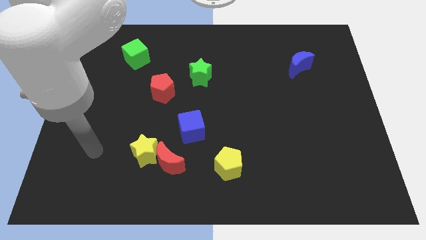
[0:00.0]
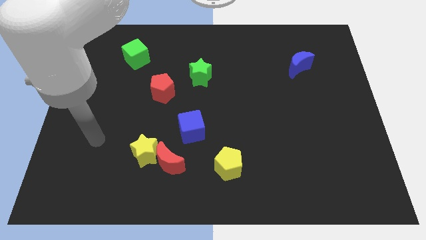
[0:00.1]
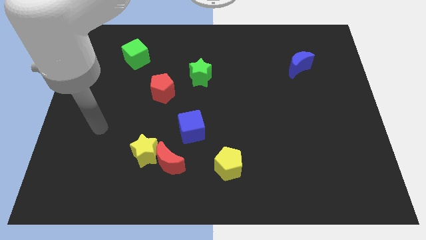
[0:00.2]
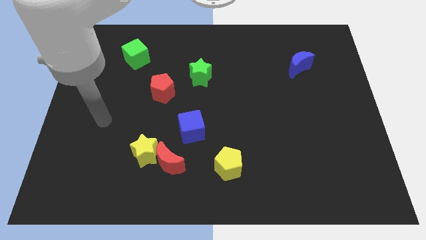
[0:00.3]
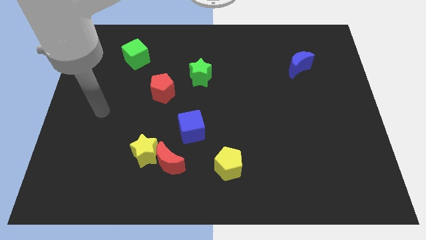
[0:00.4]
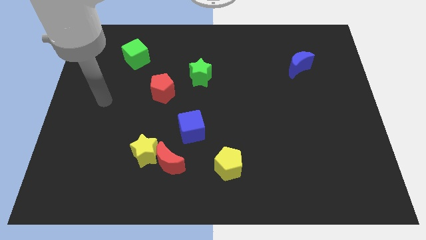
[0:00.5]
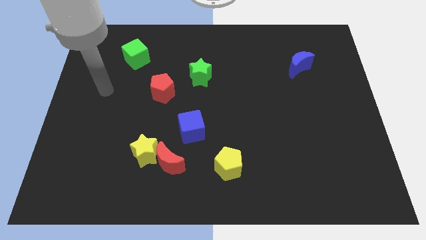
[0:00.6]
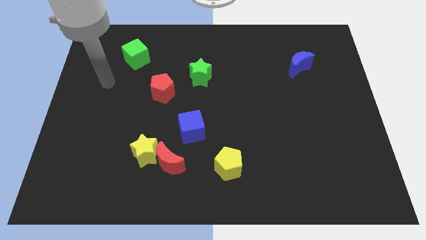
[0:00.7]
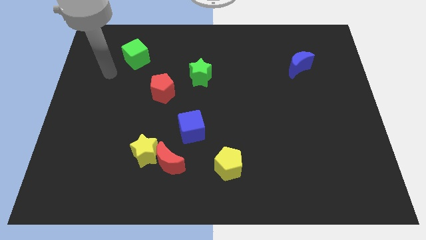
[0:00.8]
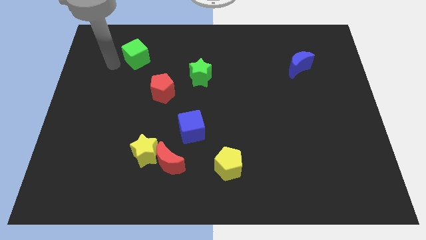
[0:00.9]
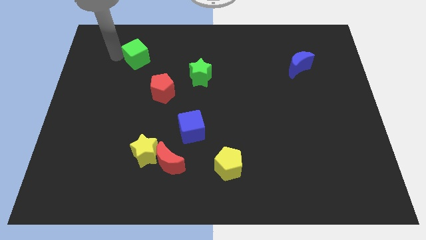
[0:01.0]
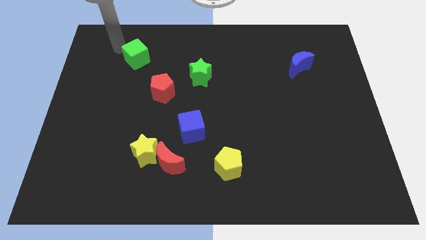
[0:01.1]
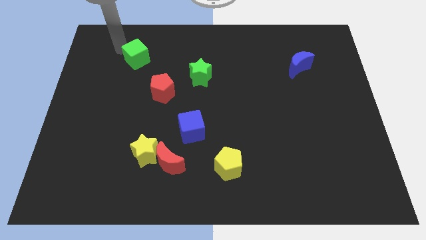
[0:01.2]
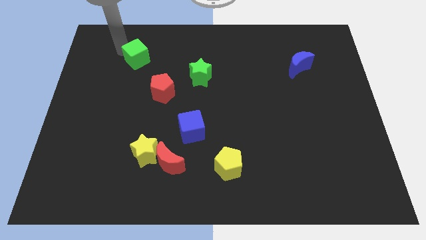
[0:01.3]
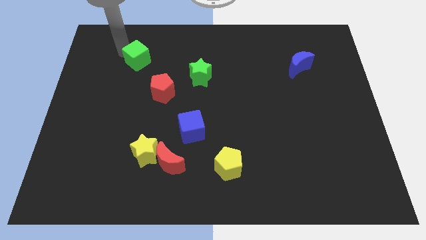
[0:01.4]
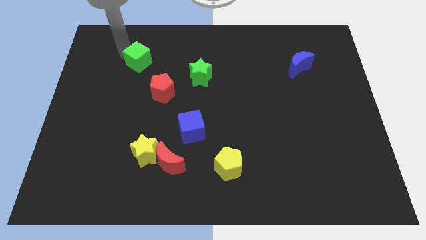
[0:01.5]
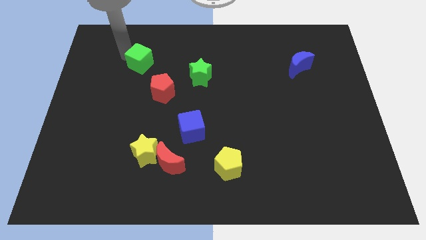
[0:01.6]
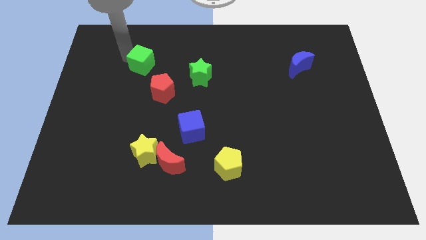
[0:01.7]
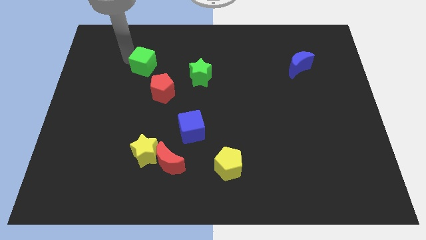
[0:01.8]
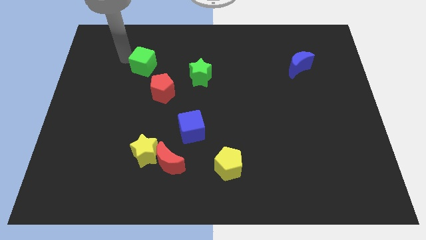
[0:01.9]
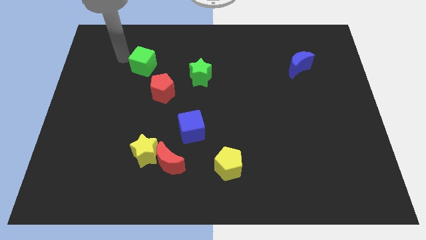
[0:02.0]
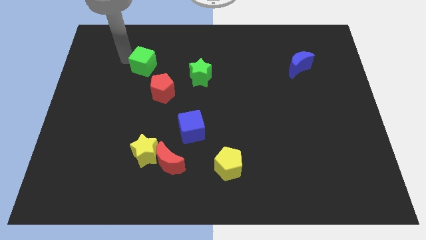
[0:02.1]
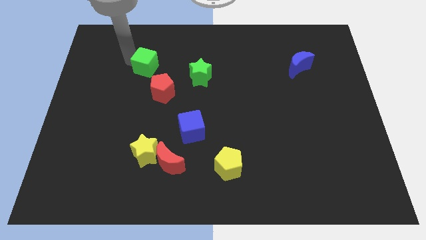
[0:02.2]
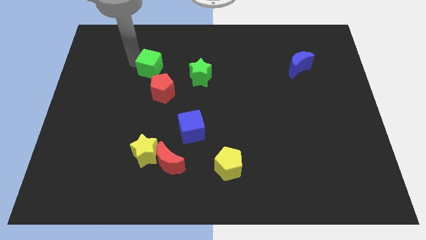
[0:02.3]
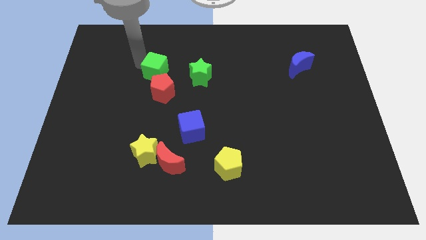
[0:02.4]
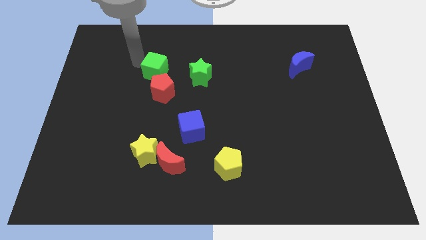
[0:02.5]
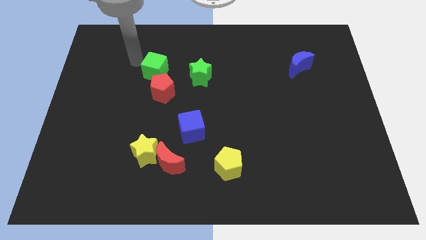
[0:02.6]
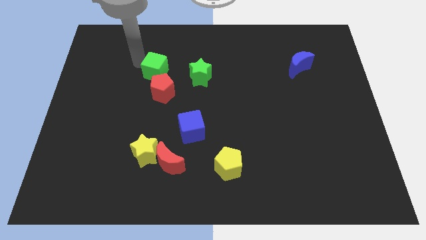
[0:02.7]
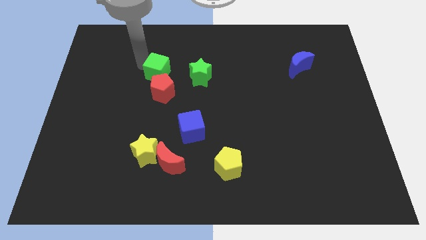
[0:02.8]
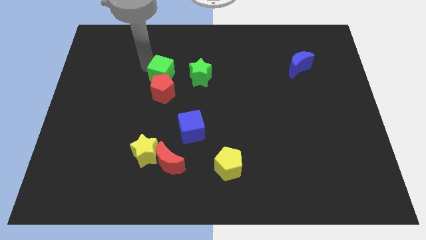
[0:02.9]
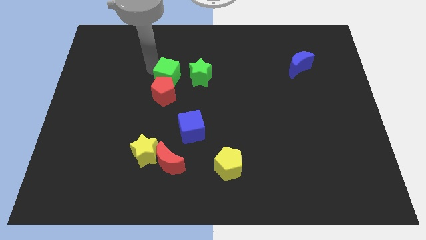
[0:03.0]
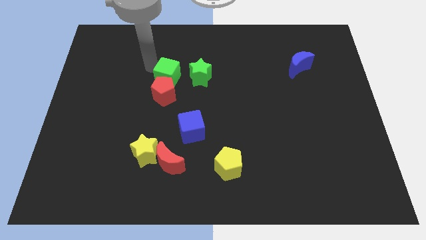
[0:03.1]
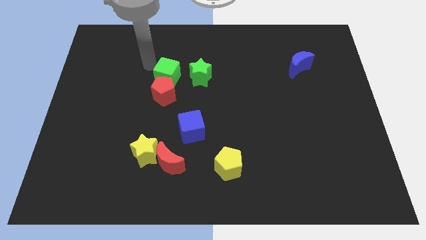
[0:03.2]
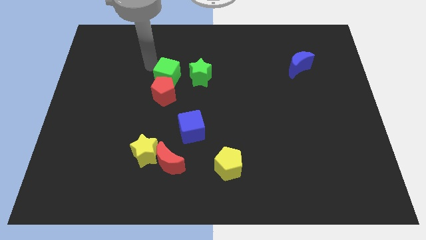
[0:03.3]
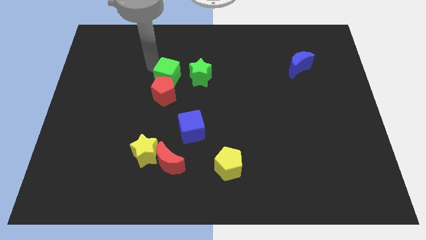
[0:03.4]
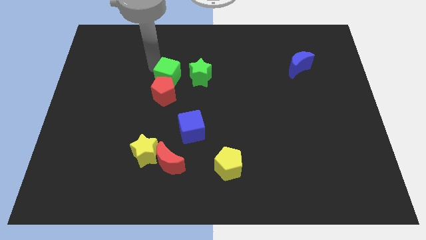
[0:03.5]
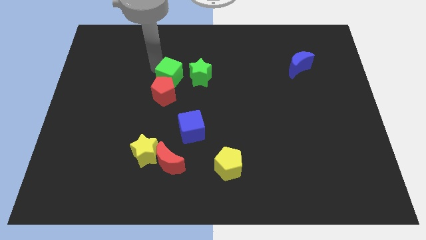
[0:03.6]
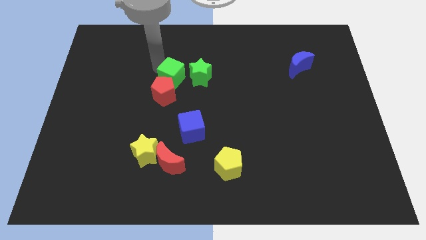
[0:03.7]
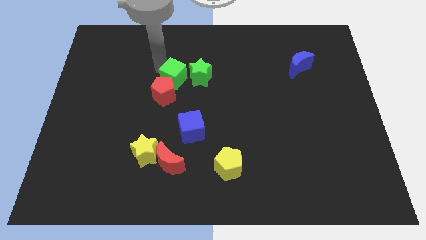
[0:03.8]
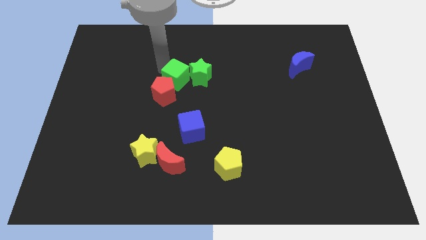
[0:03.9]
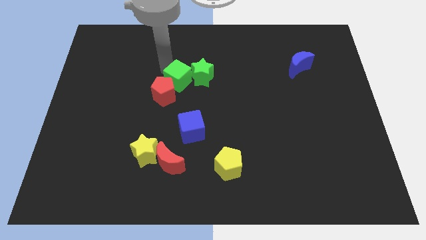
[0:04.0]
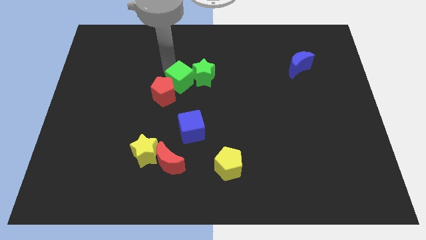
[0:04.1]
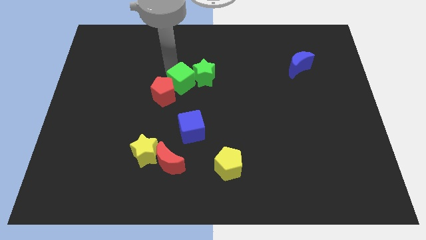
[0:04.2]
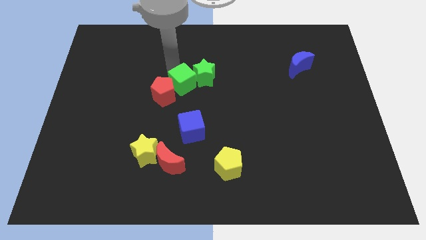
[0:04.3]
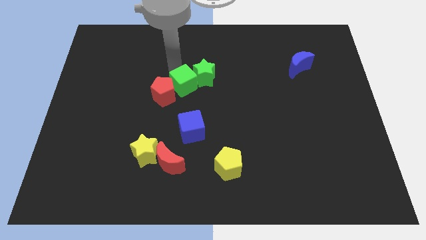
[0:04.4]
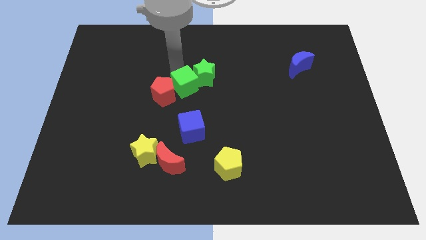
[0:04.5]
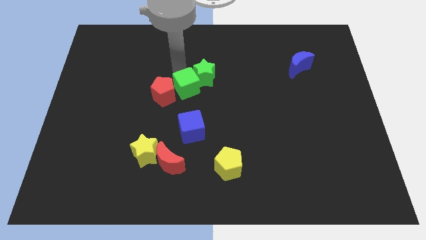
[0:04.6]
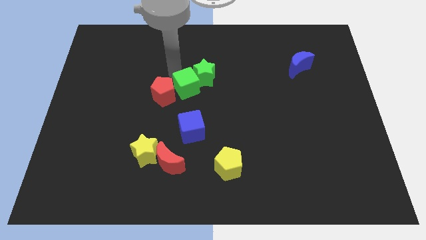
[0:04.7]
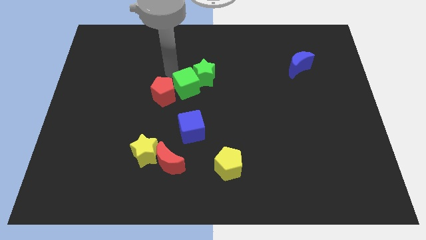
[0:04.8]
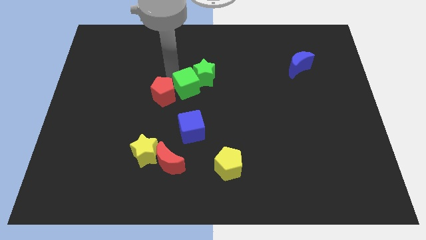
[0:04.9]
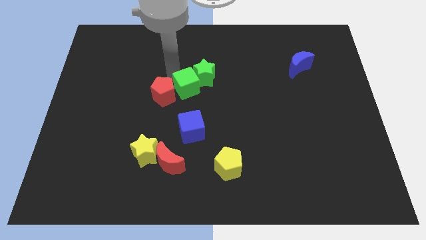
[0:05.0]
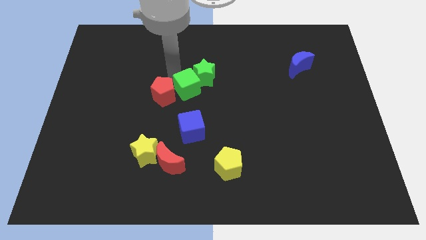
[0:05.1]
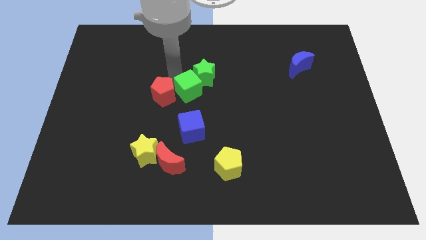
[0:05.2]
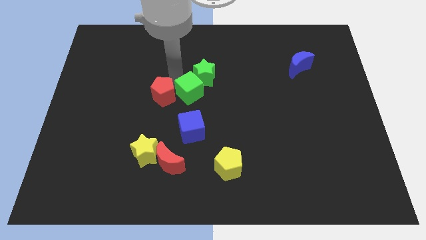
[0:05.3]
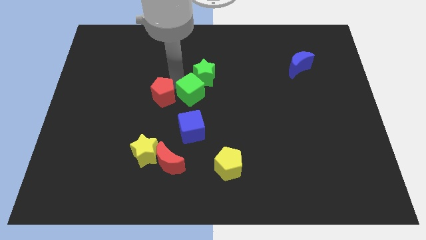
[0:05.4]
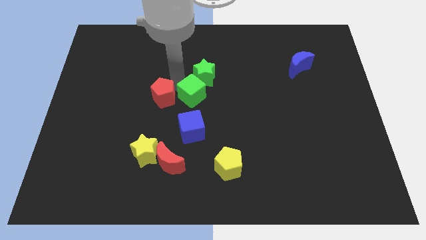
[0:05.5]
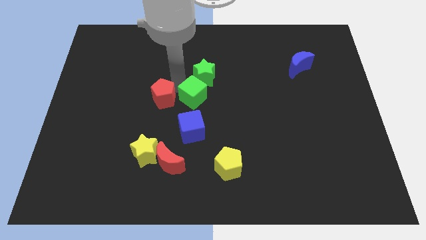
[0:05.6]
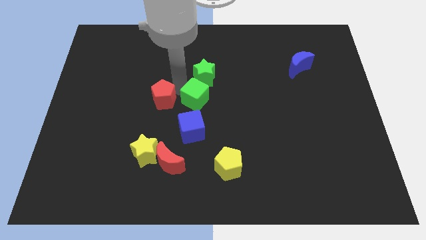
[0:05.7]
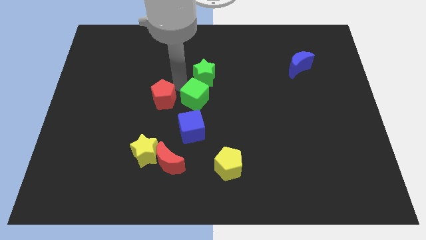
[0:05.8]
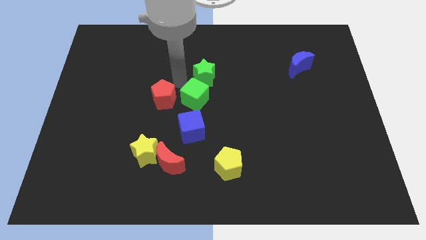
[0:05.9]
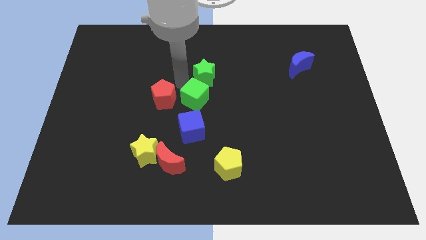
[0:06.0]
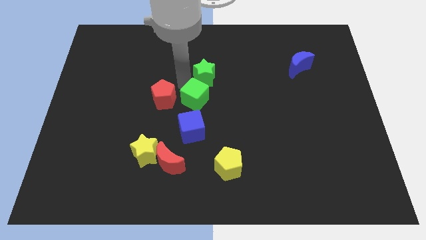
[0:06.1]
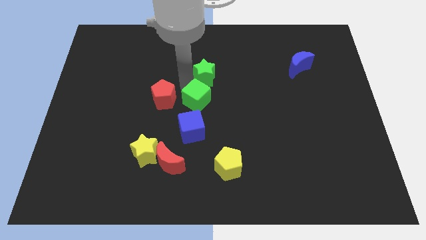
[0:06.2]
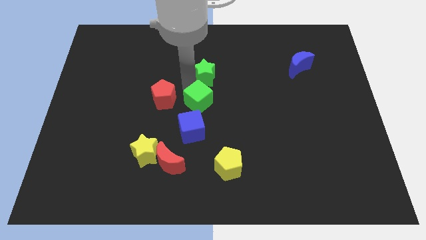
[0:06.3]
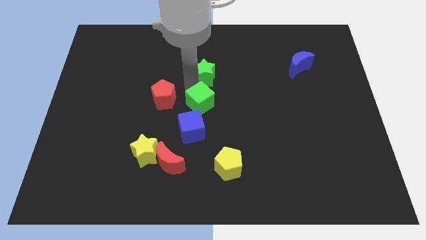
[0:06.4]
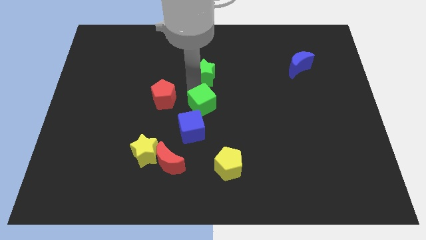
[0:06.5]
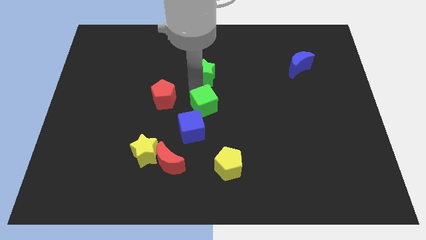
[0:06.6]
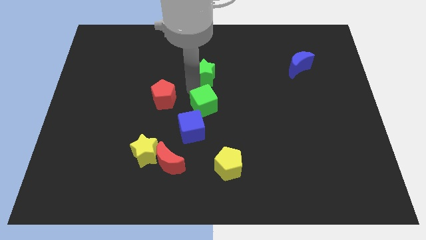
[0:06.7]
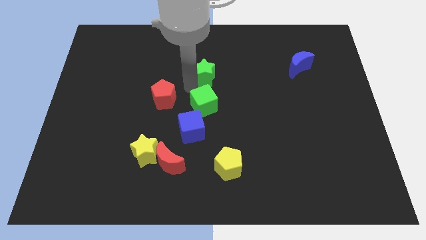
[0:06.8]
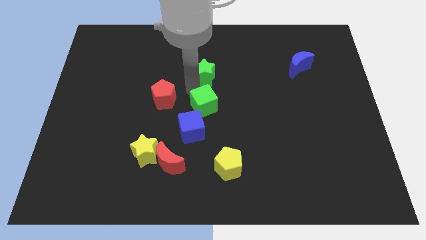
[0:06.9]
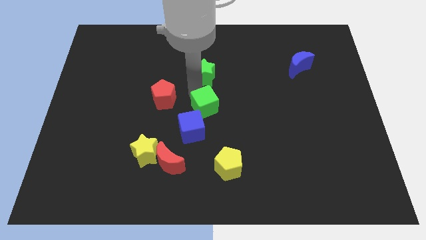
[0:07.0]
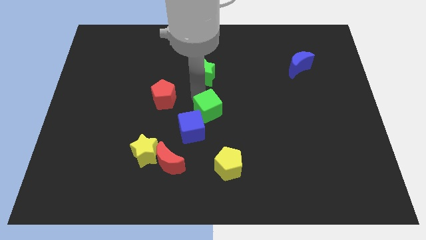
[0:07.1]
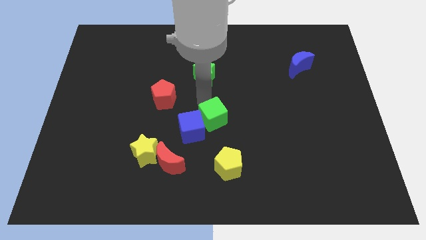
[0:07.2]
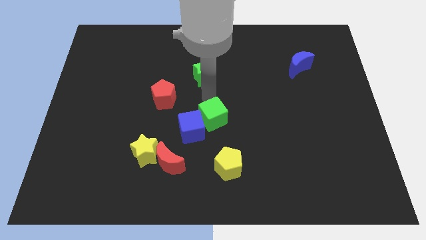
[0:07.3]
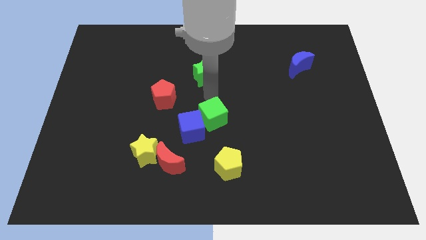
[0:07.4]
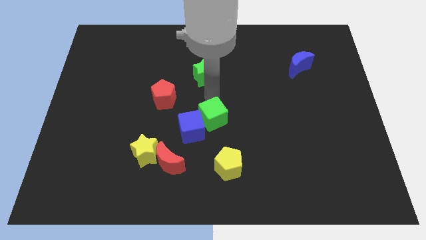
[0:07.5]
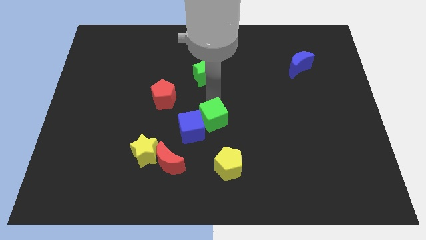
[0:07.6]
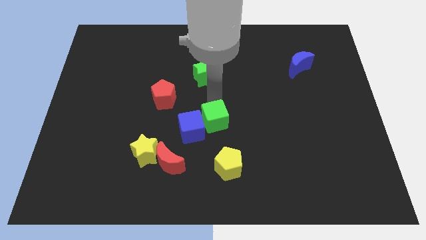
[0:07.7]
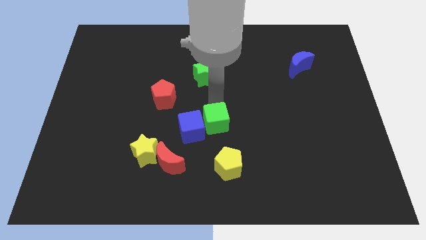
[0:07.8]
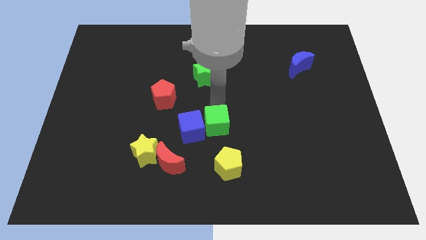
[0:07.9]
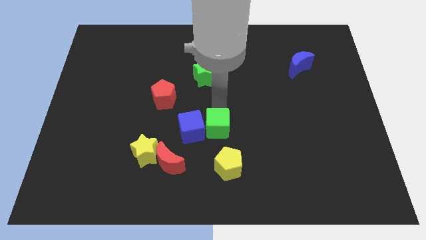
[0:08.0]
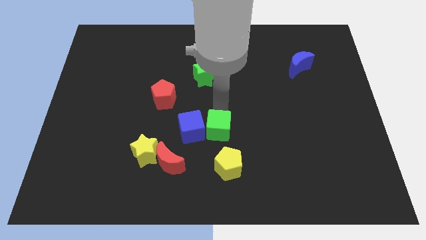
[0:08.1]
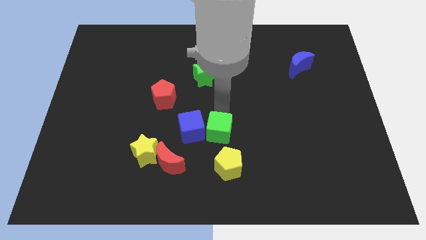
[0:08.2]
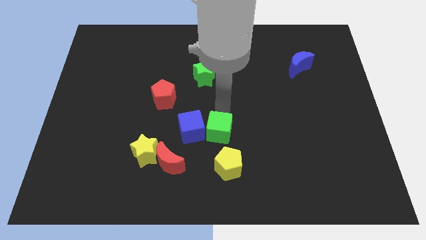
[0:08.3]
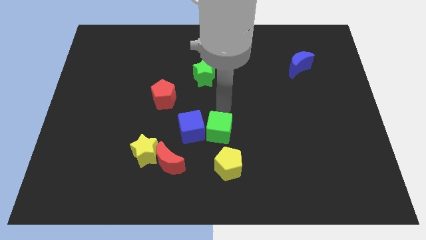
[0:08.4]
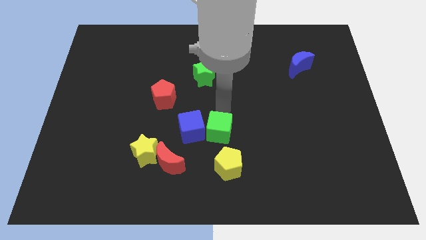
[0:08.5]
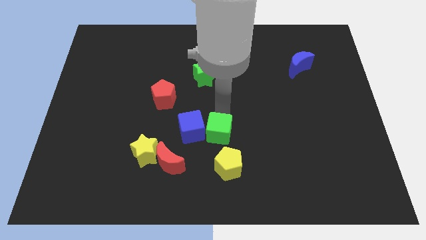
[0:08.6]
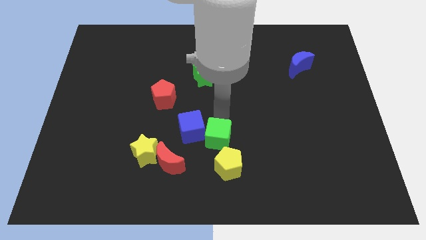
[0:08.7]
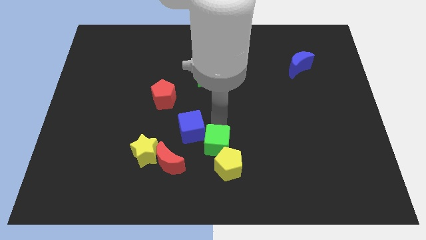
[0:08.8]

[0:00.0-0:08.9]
slide the green cube close to the yellow pentagon
